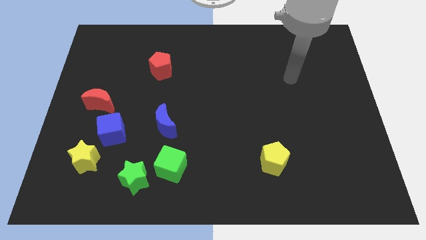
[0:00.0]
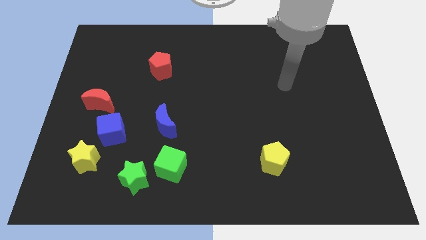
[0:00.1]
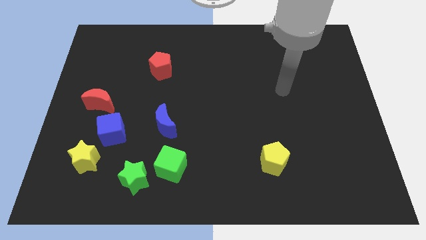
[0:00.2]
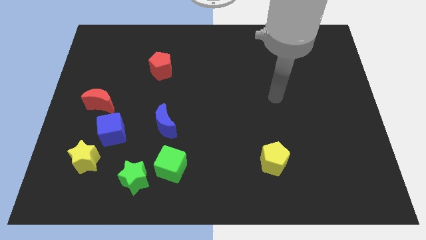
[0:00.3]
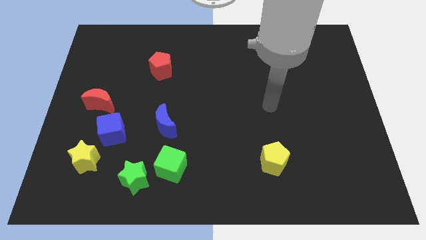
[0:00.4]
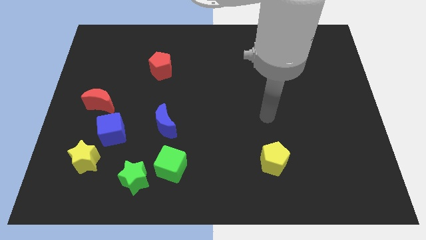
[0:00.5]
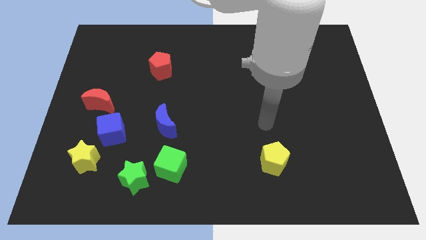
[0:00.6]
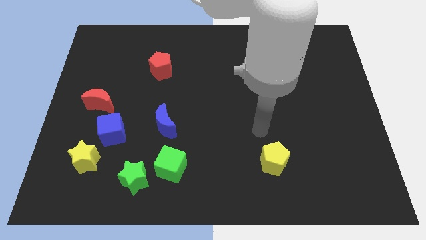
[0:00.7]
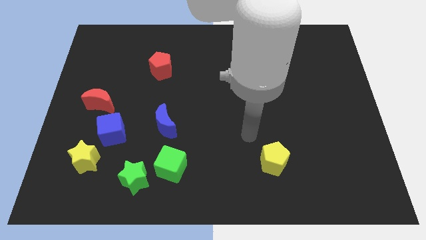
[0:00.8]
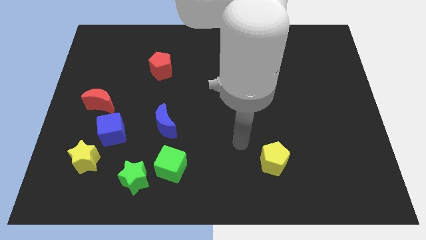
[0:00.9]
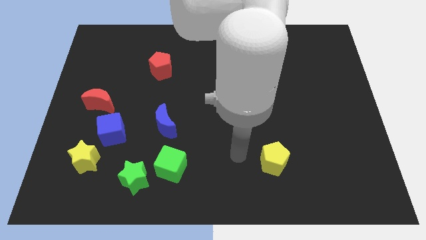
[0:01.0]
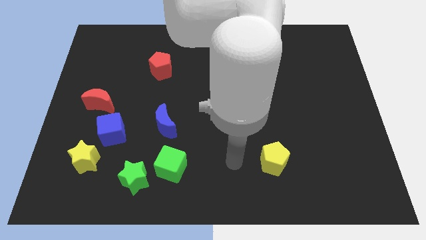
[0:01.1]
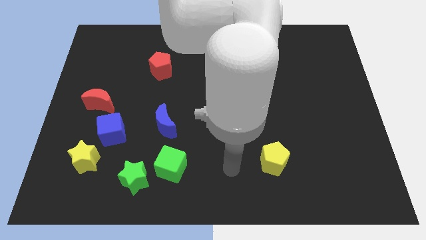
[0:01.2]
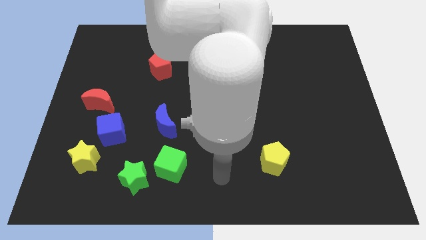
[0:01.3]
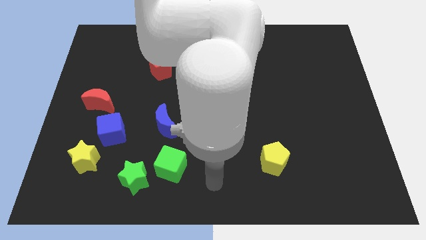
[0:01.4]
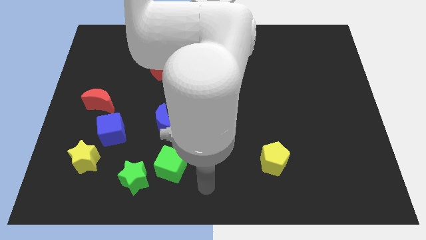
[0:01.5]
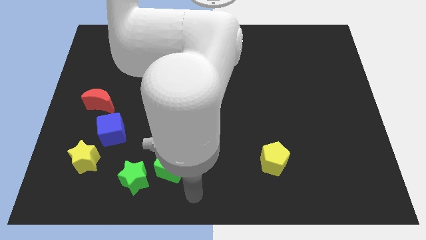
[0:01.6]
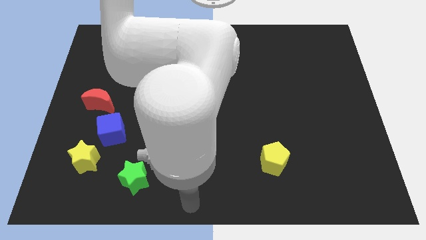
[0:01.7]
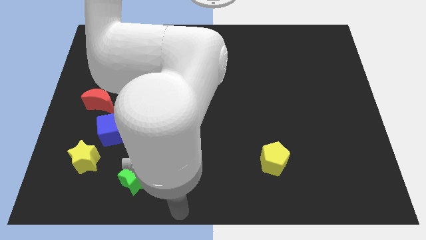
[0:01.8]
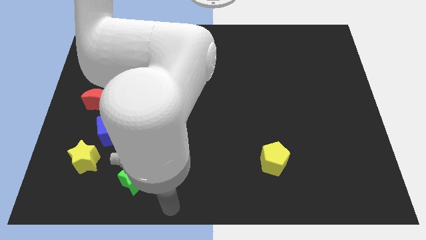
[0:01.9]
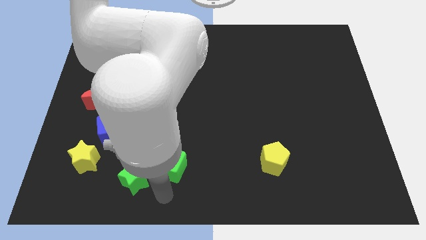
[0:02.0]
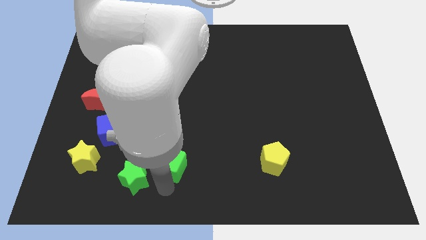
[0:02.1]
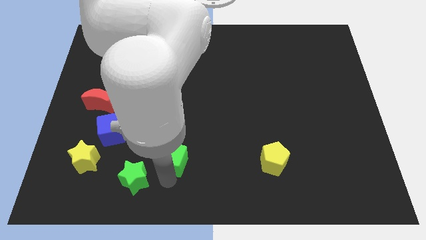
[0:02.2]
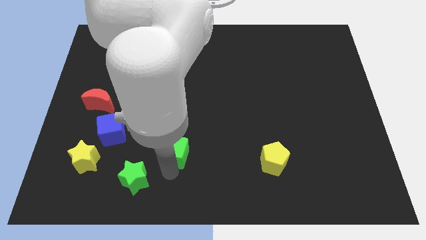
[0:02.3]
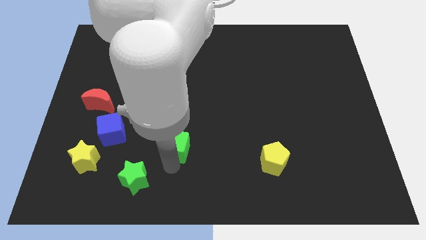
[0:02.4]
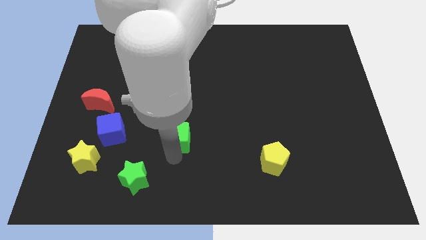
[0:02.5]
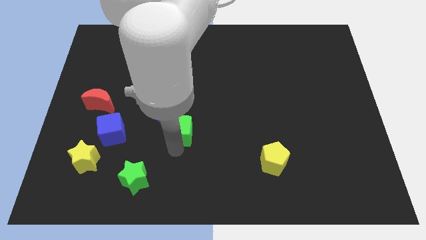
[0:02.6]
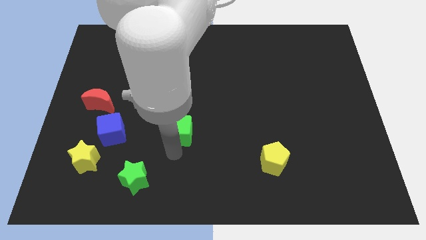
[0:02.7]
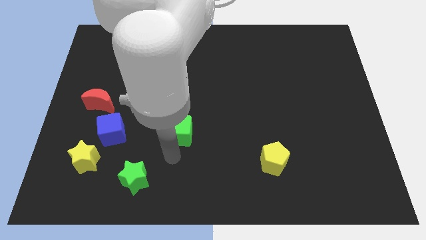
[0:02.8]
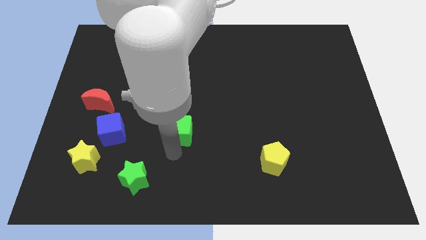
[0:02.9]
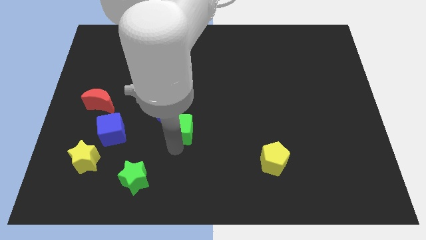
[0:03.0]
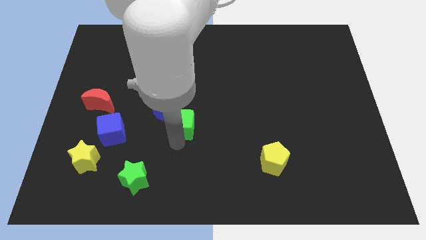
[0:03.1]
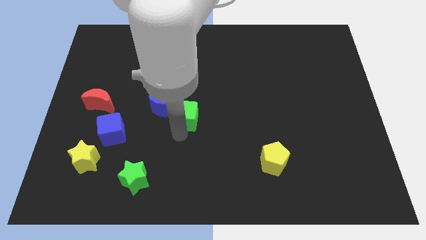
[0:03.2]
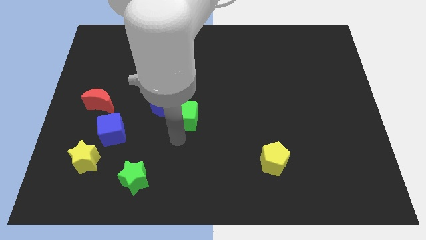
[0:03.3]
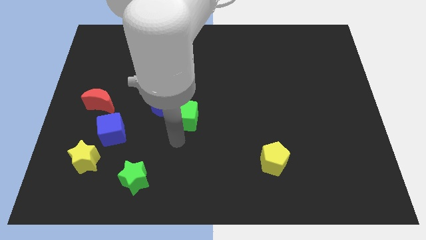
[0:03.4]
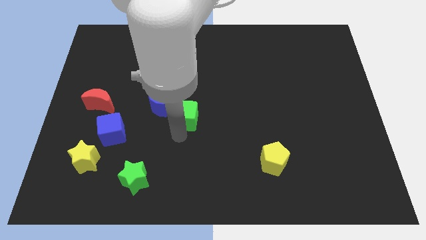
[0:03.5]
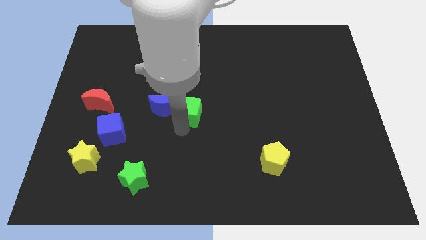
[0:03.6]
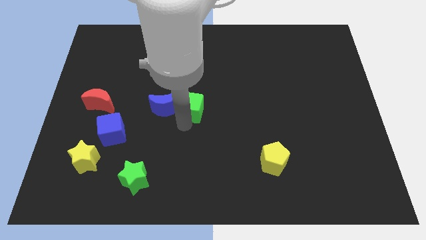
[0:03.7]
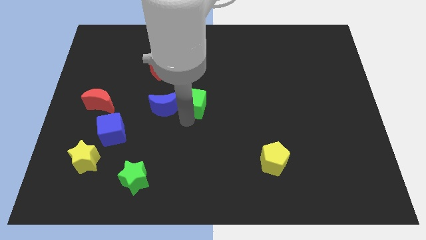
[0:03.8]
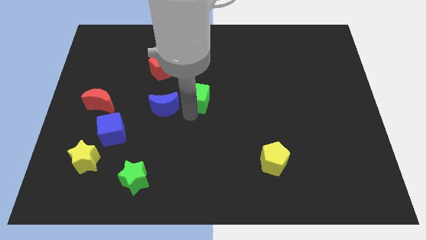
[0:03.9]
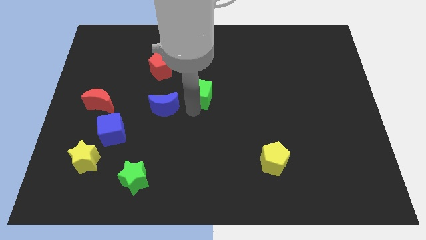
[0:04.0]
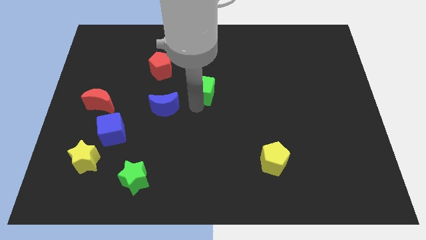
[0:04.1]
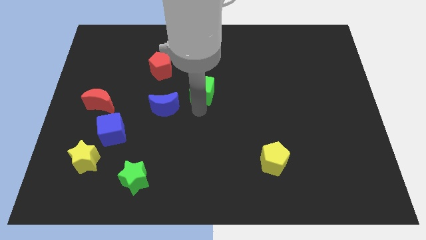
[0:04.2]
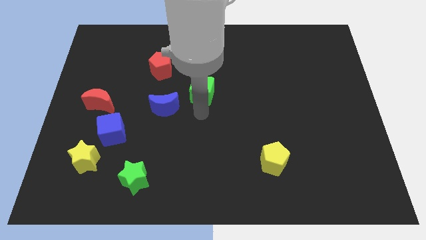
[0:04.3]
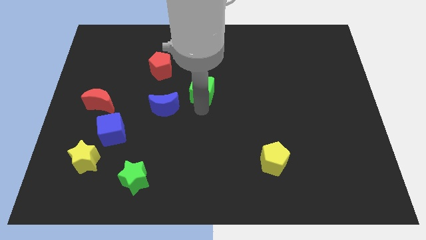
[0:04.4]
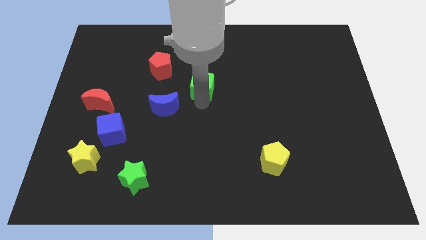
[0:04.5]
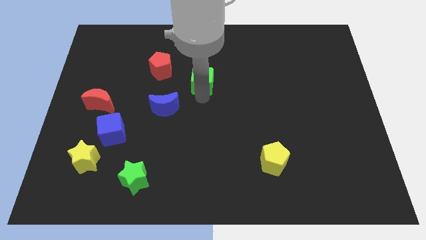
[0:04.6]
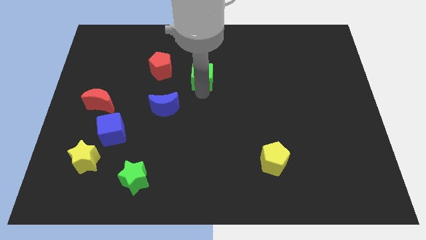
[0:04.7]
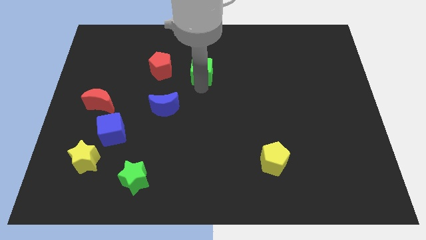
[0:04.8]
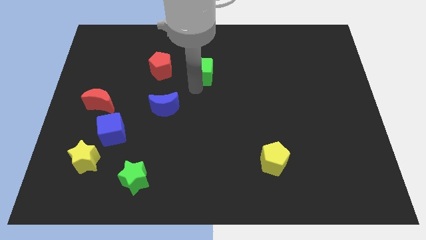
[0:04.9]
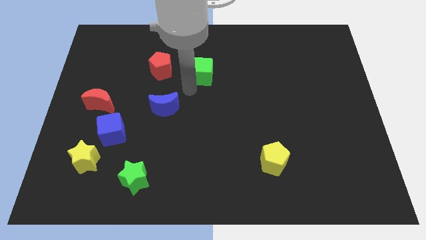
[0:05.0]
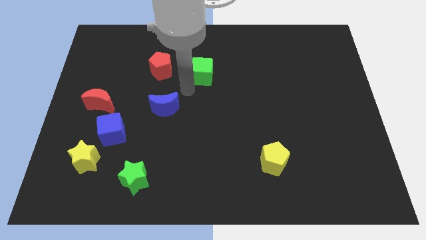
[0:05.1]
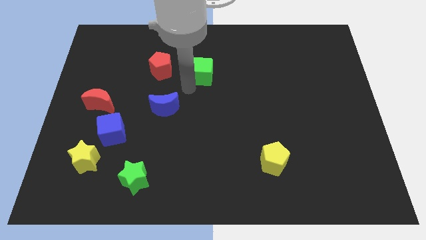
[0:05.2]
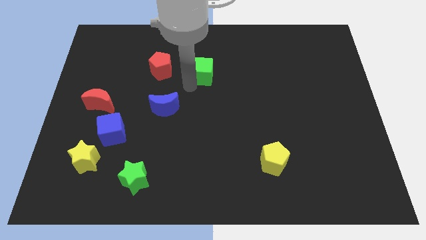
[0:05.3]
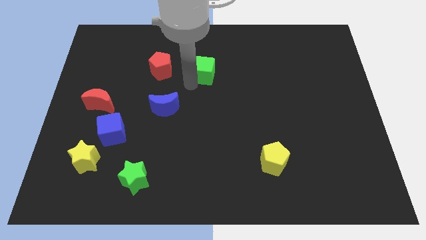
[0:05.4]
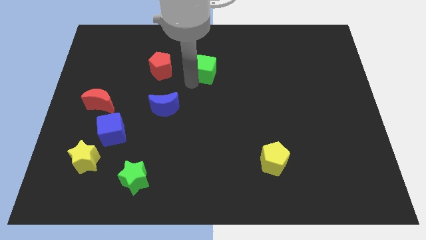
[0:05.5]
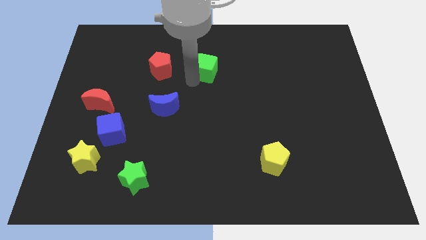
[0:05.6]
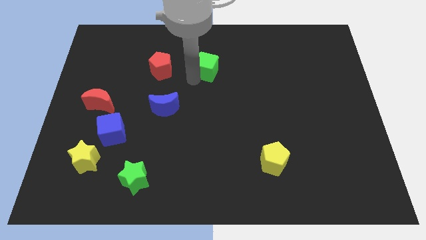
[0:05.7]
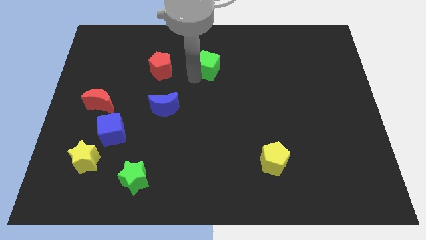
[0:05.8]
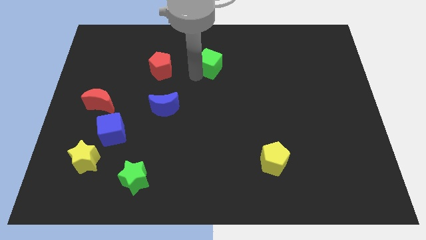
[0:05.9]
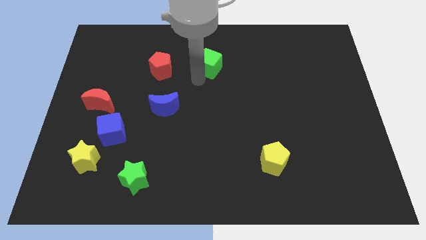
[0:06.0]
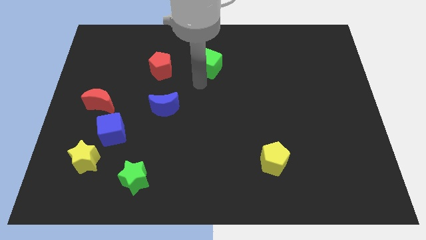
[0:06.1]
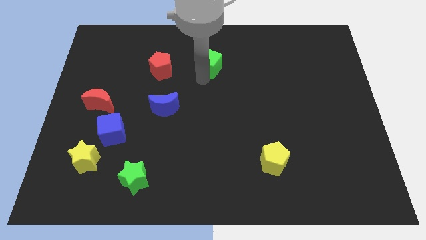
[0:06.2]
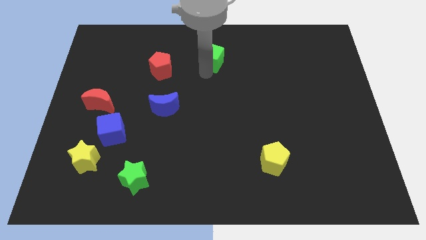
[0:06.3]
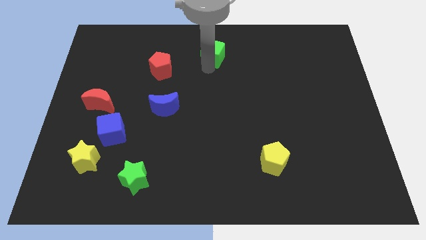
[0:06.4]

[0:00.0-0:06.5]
move the green cube to the top side
